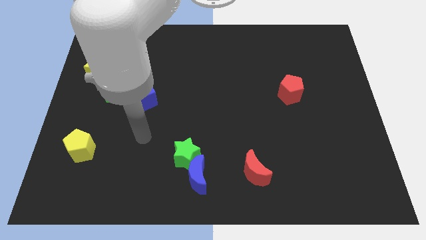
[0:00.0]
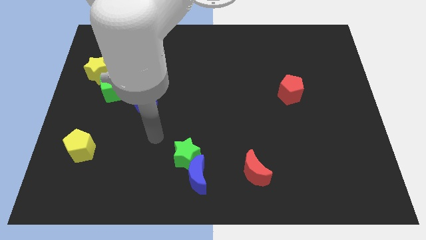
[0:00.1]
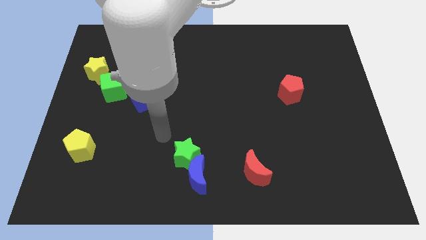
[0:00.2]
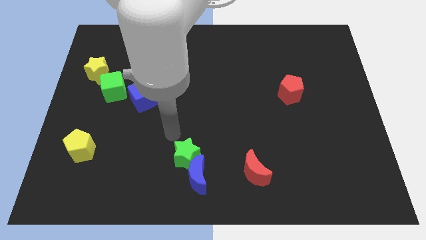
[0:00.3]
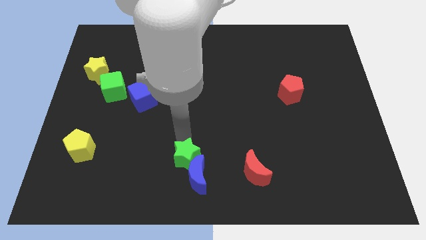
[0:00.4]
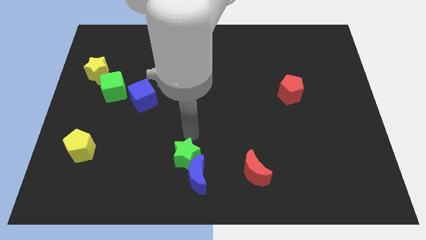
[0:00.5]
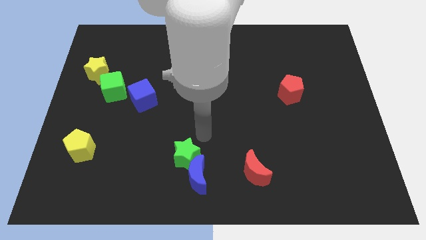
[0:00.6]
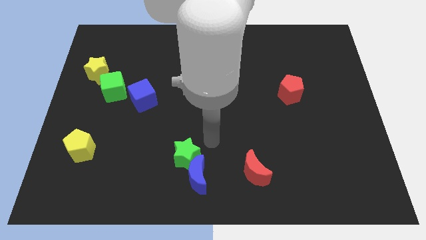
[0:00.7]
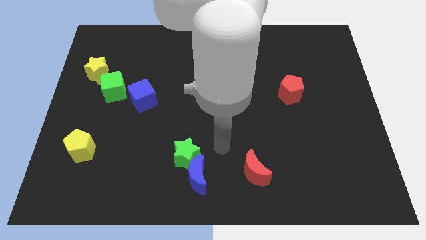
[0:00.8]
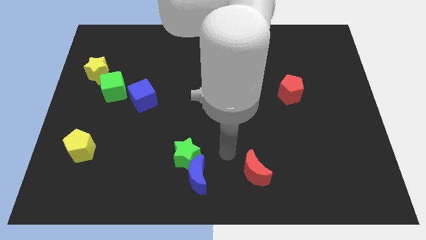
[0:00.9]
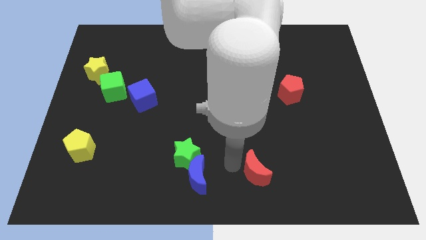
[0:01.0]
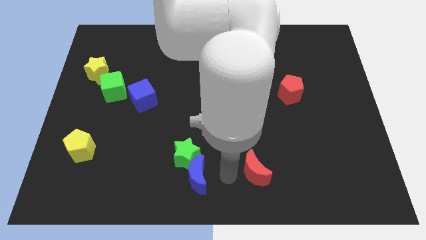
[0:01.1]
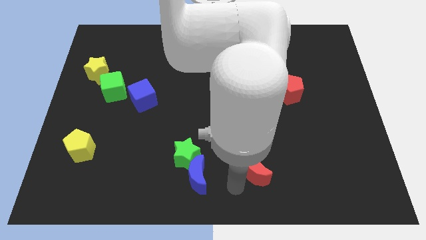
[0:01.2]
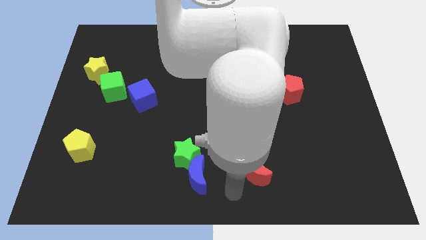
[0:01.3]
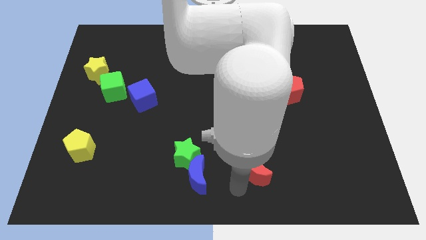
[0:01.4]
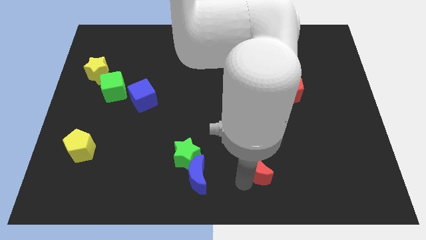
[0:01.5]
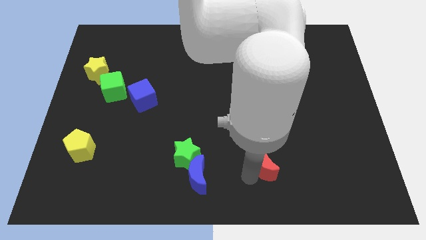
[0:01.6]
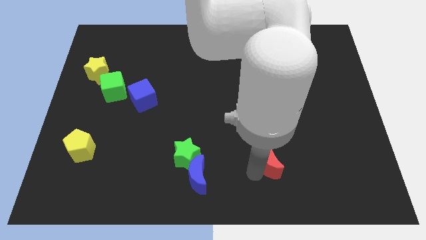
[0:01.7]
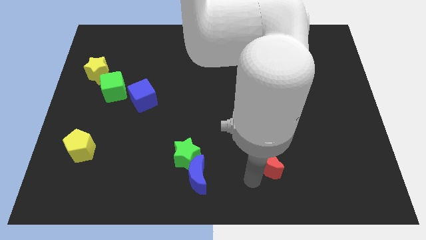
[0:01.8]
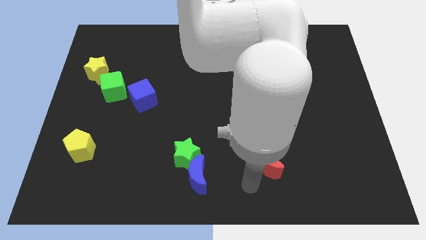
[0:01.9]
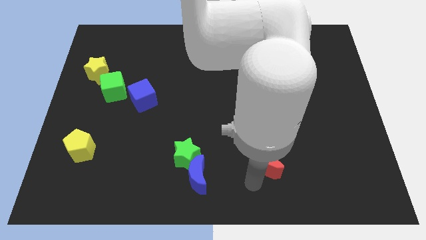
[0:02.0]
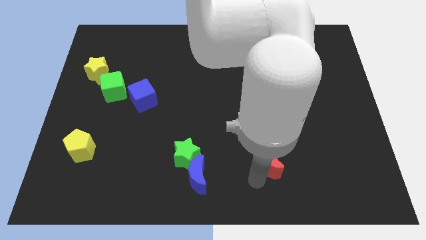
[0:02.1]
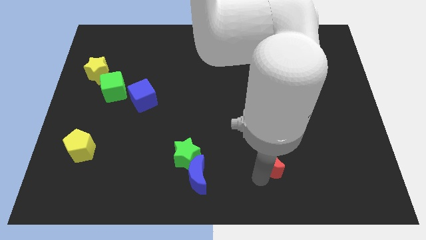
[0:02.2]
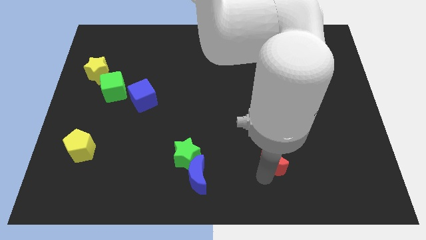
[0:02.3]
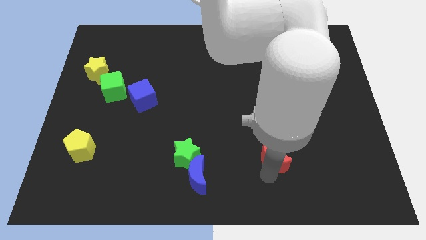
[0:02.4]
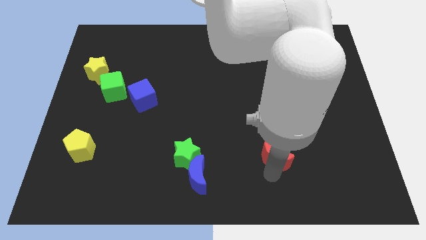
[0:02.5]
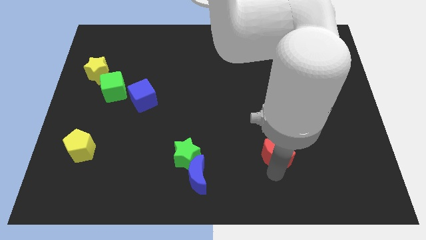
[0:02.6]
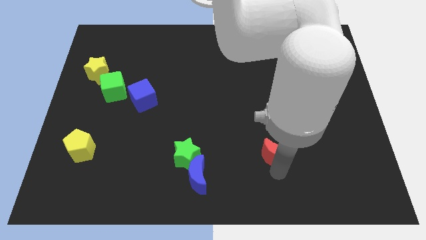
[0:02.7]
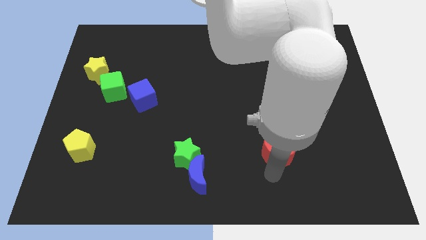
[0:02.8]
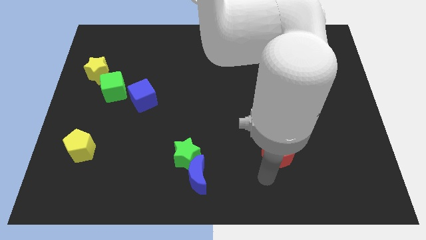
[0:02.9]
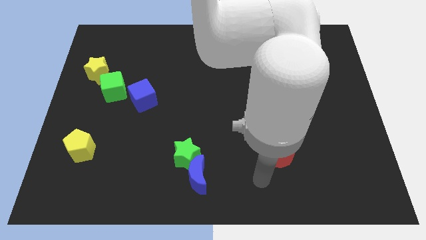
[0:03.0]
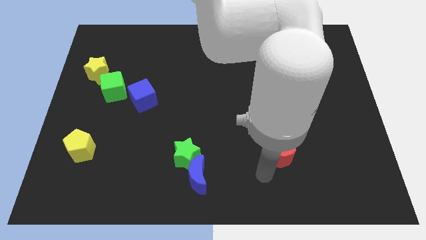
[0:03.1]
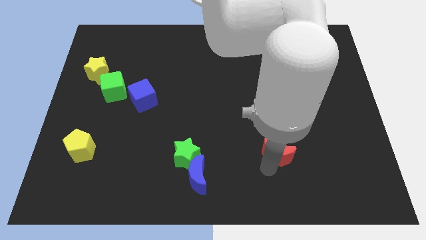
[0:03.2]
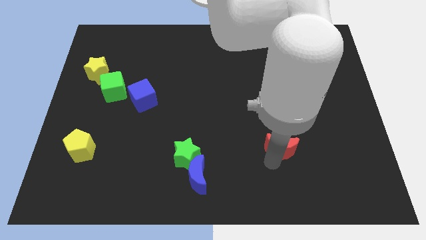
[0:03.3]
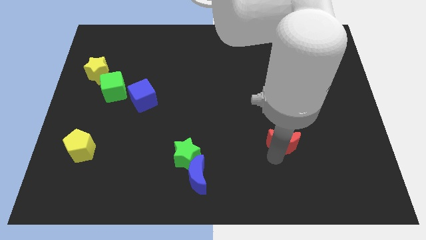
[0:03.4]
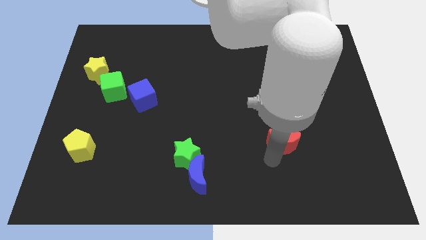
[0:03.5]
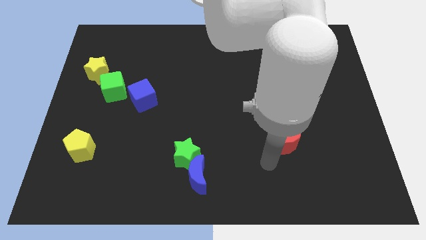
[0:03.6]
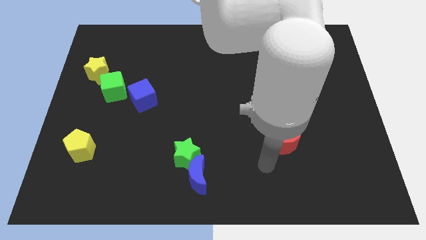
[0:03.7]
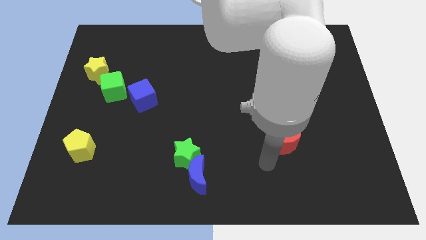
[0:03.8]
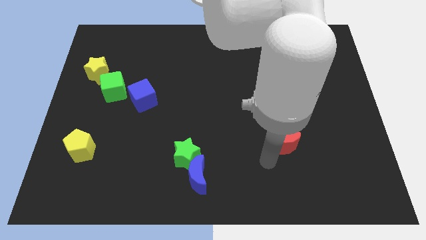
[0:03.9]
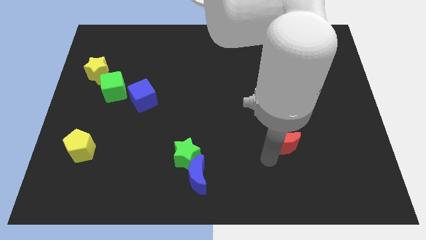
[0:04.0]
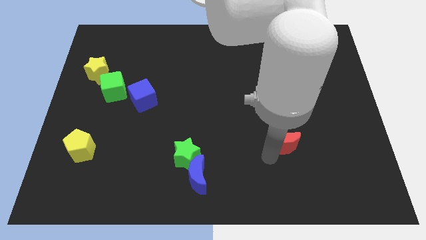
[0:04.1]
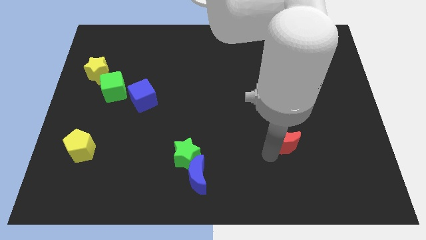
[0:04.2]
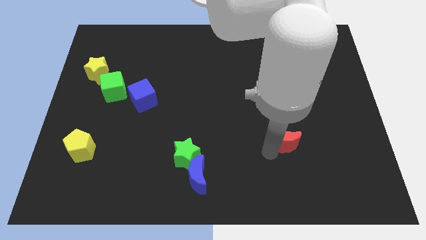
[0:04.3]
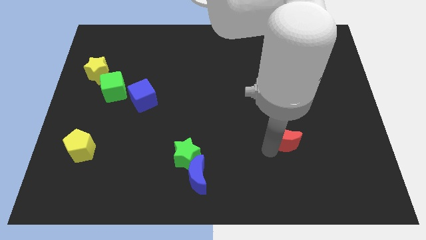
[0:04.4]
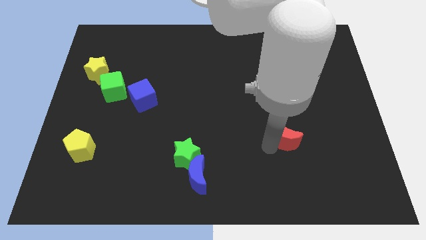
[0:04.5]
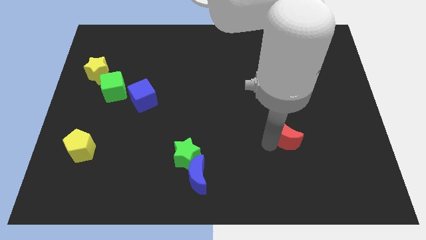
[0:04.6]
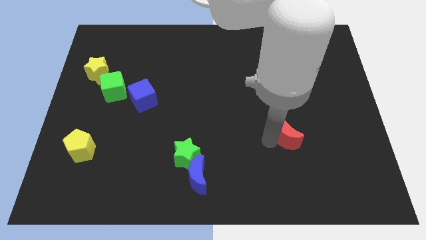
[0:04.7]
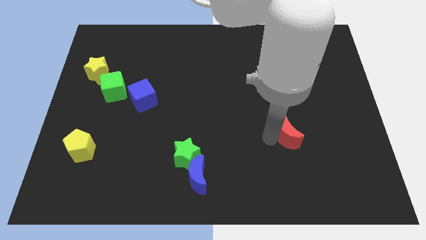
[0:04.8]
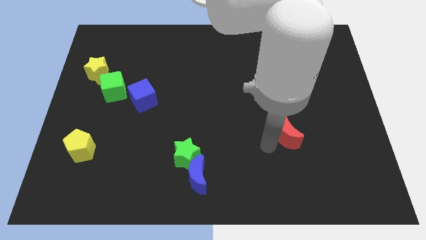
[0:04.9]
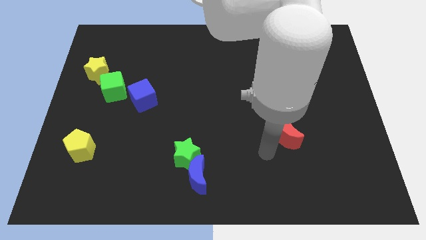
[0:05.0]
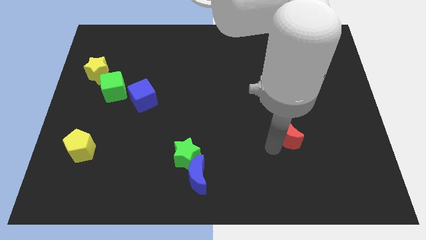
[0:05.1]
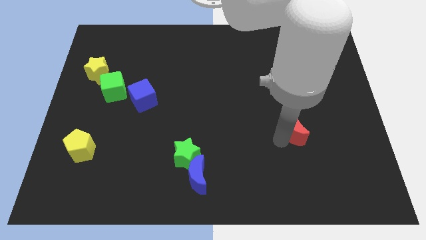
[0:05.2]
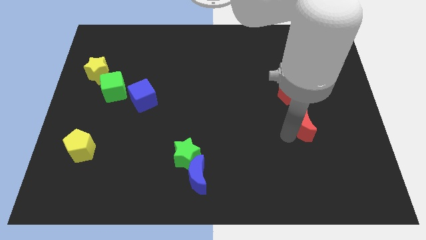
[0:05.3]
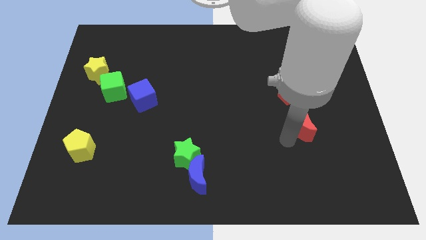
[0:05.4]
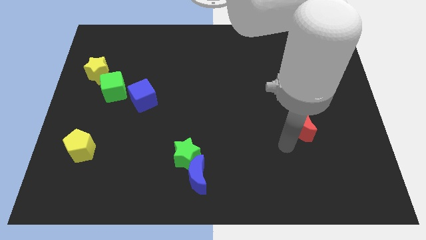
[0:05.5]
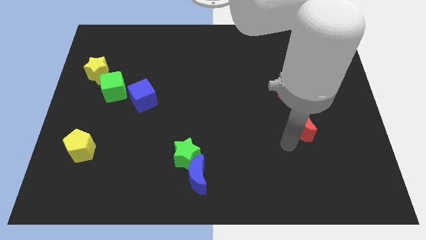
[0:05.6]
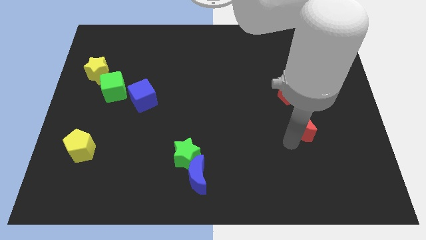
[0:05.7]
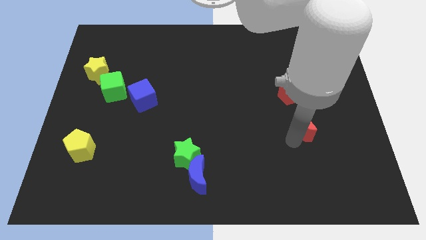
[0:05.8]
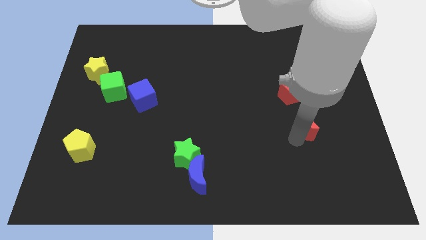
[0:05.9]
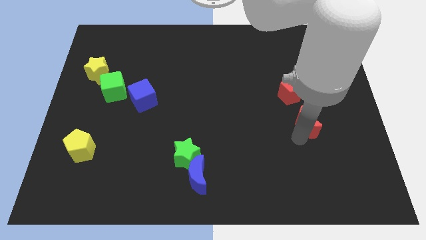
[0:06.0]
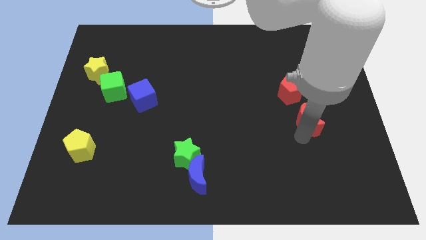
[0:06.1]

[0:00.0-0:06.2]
put the red moon to the bottom right side of the red pentagon

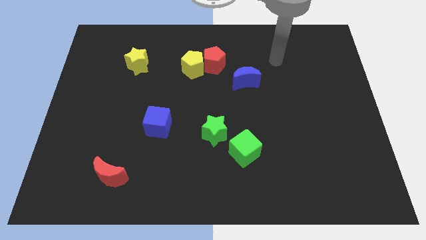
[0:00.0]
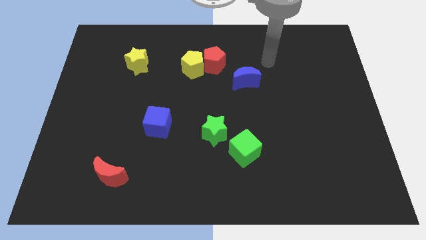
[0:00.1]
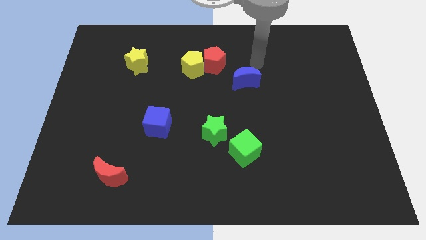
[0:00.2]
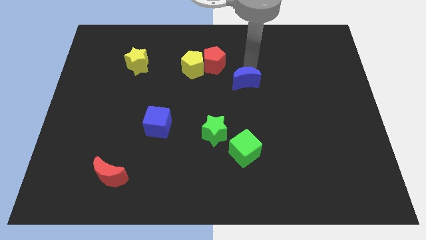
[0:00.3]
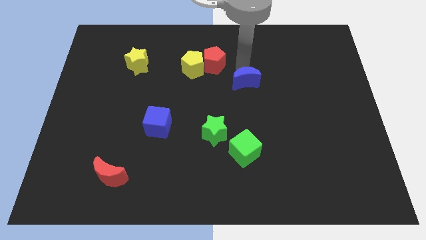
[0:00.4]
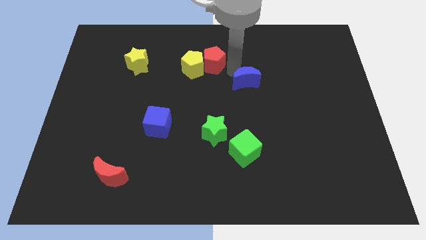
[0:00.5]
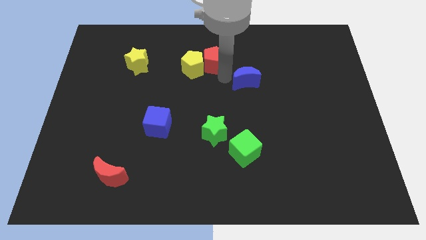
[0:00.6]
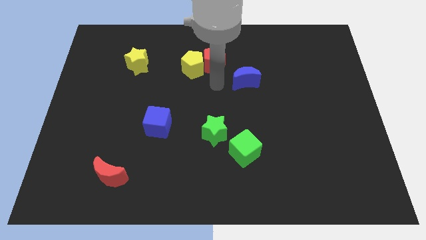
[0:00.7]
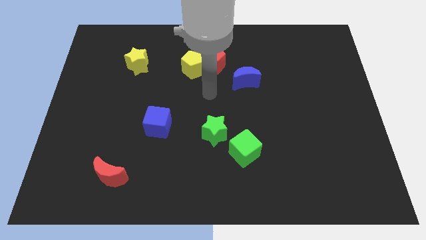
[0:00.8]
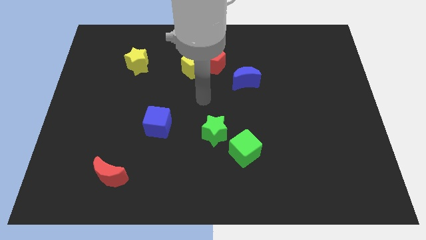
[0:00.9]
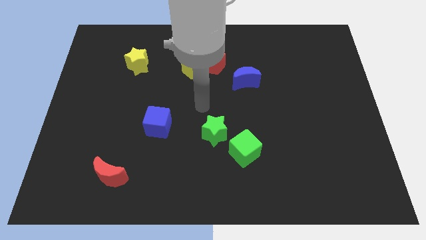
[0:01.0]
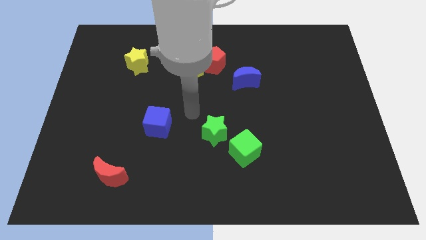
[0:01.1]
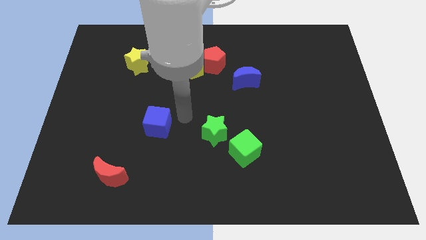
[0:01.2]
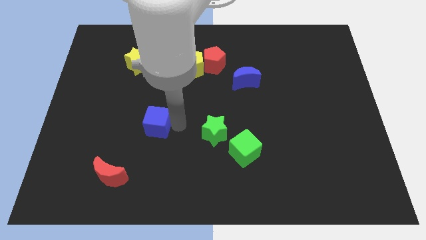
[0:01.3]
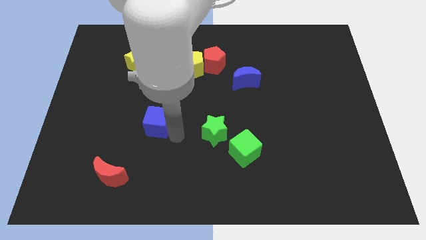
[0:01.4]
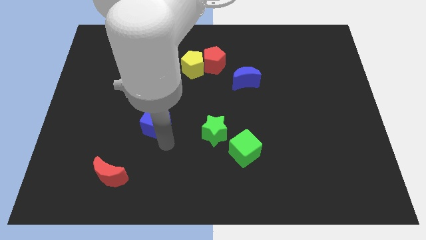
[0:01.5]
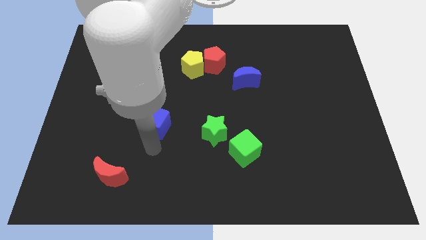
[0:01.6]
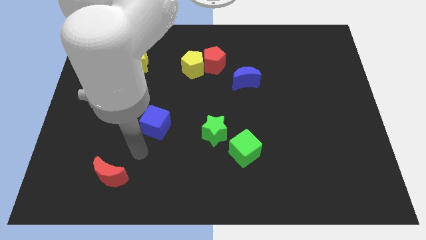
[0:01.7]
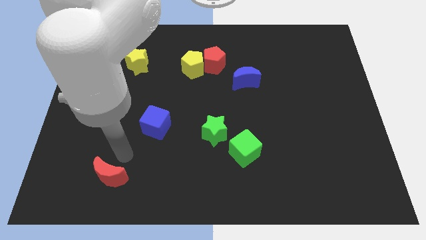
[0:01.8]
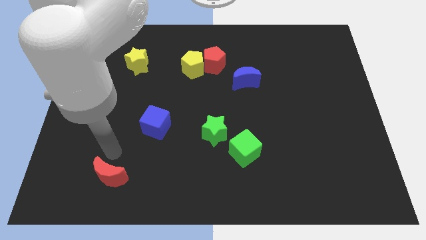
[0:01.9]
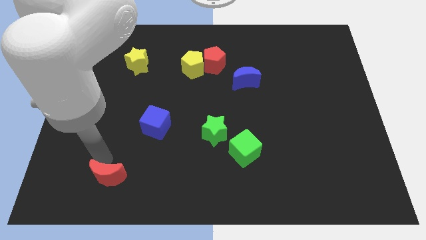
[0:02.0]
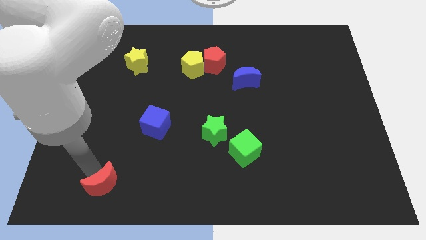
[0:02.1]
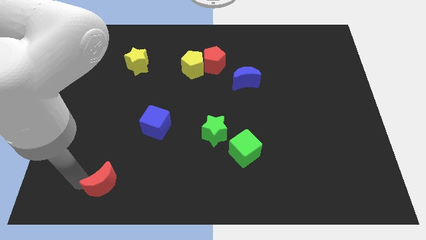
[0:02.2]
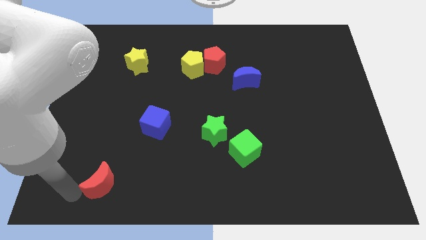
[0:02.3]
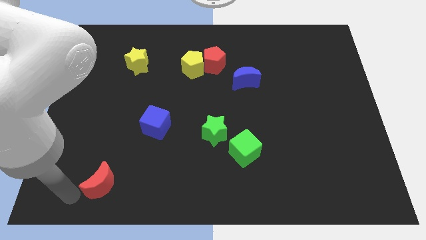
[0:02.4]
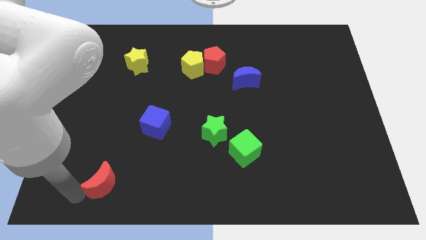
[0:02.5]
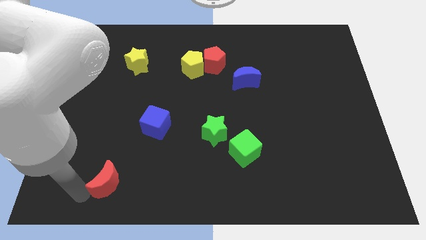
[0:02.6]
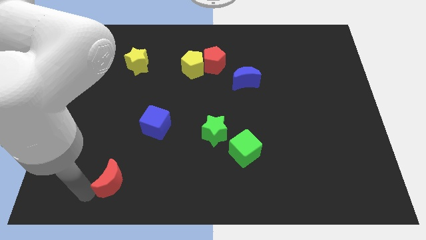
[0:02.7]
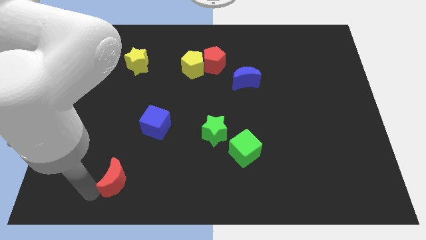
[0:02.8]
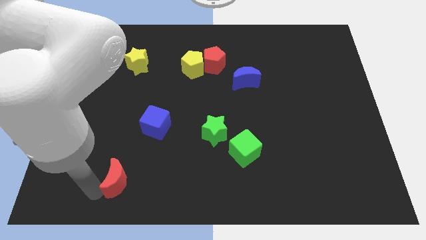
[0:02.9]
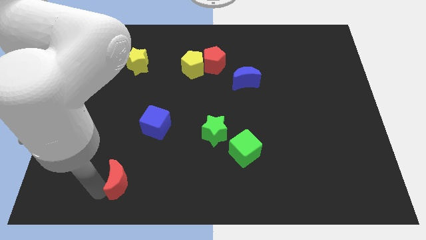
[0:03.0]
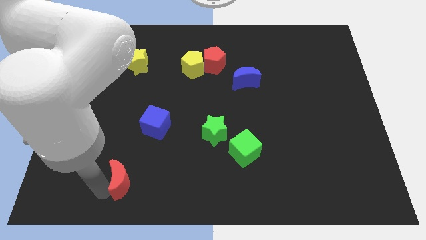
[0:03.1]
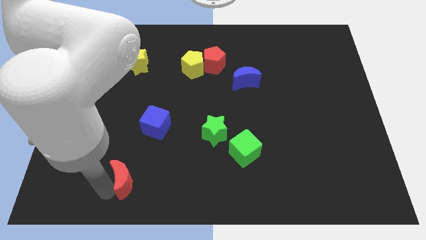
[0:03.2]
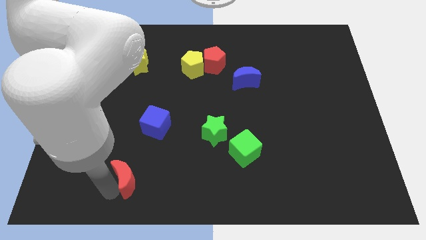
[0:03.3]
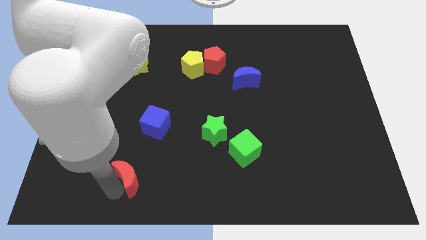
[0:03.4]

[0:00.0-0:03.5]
push the red moon to the bottom side of the blue cube
